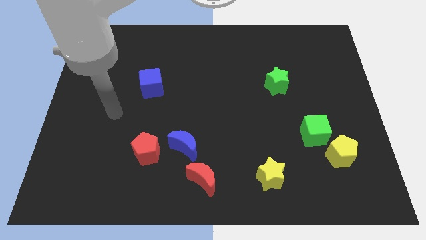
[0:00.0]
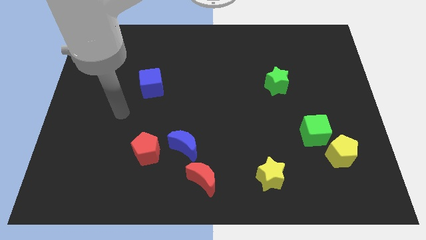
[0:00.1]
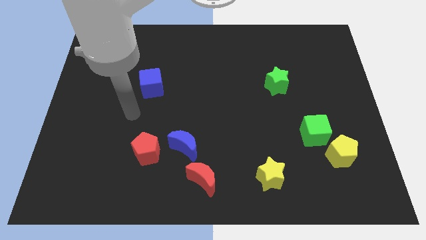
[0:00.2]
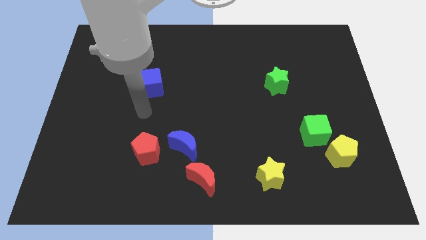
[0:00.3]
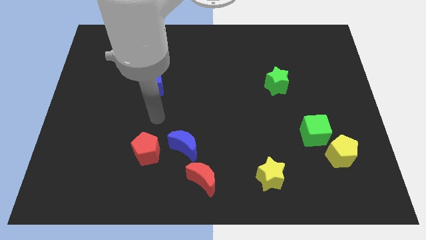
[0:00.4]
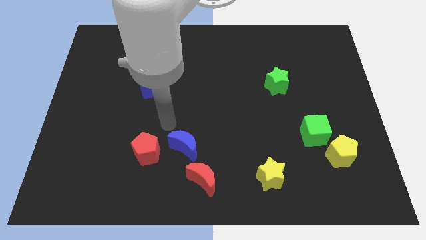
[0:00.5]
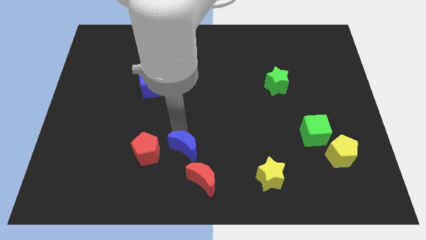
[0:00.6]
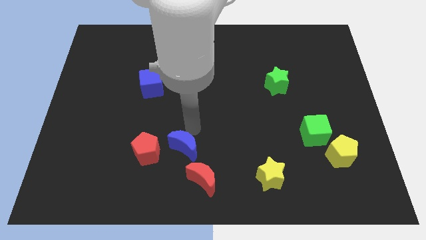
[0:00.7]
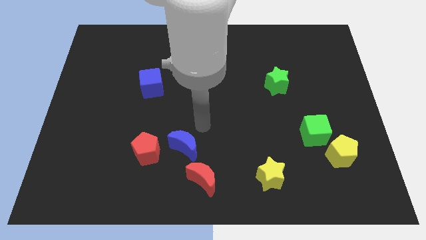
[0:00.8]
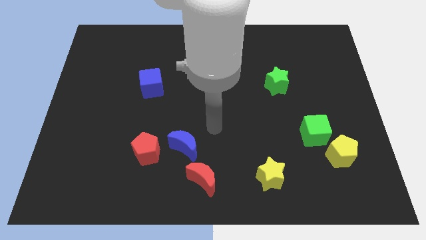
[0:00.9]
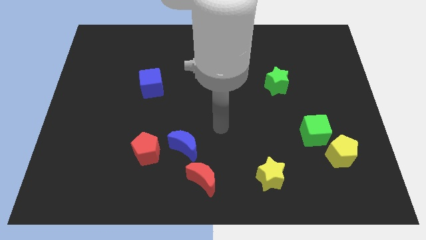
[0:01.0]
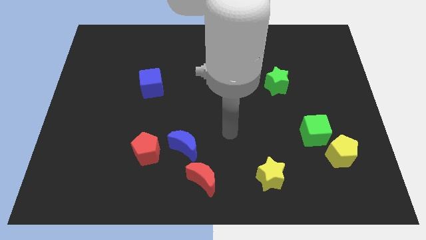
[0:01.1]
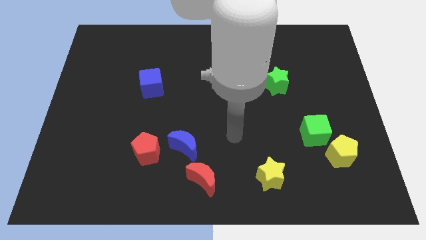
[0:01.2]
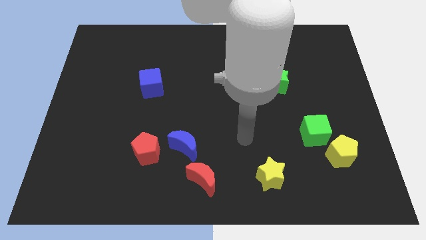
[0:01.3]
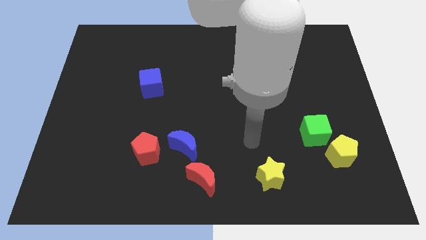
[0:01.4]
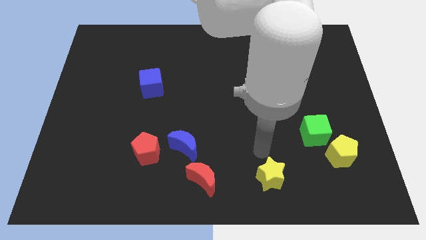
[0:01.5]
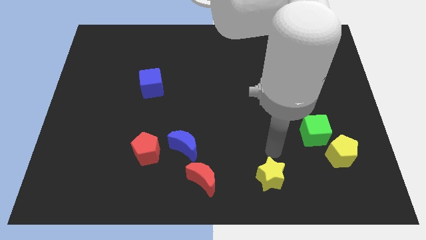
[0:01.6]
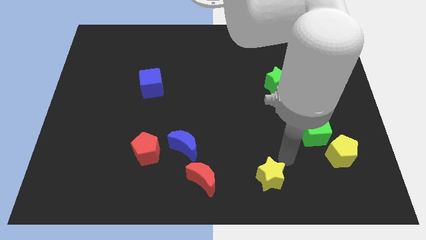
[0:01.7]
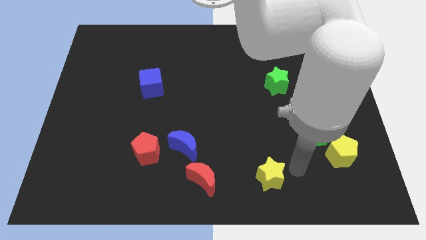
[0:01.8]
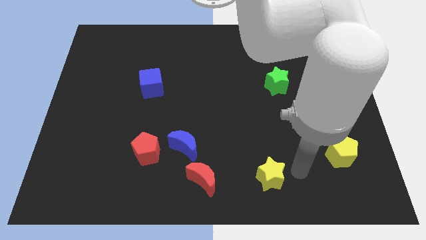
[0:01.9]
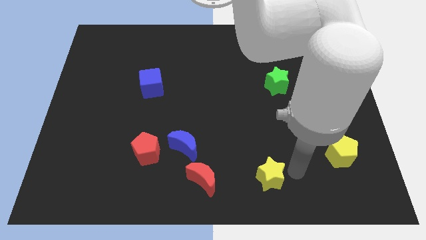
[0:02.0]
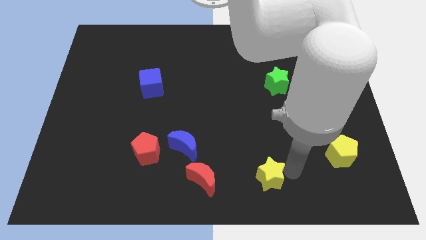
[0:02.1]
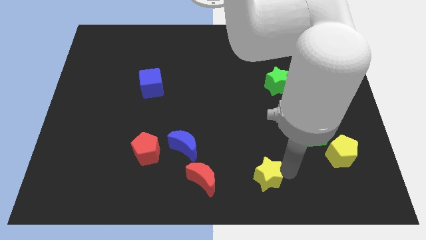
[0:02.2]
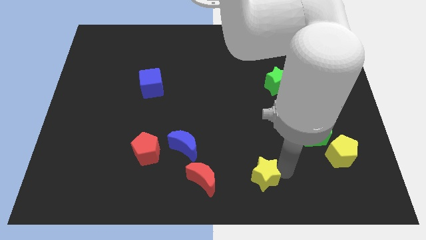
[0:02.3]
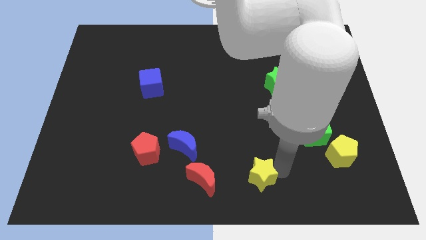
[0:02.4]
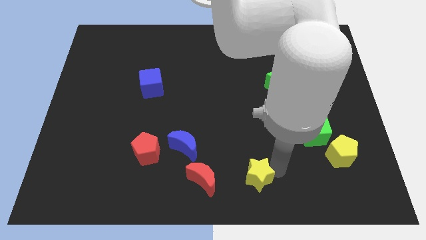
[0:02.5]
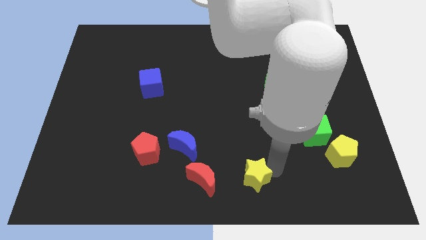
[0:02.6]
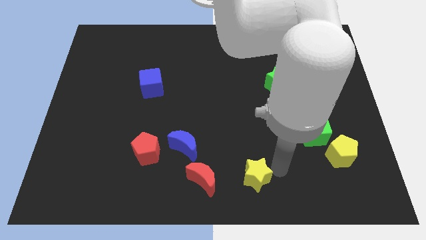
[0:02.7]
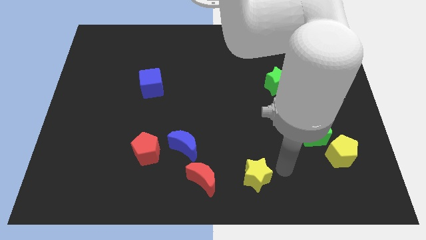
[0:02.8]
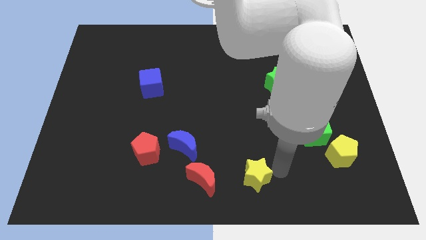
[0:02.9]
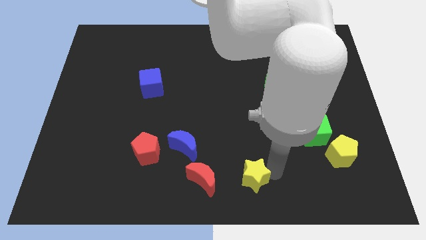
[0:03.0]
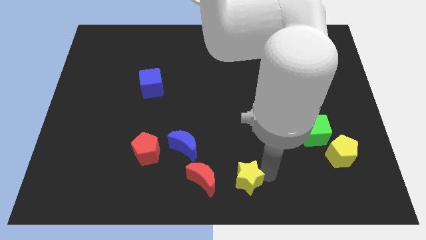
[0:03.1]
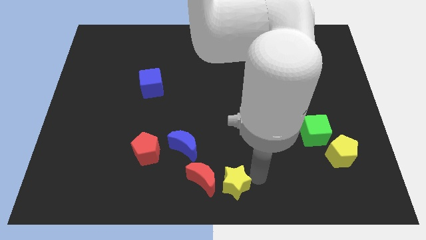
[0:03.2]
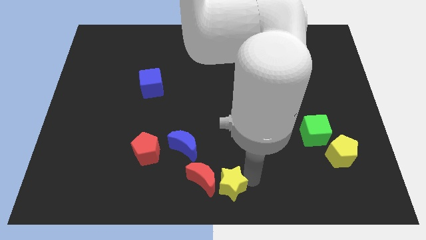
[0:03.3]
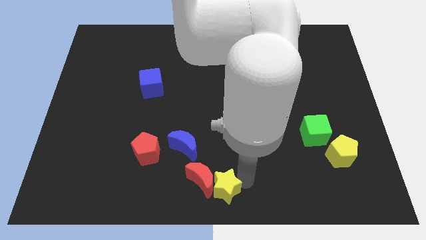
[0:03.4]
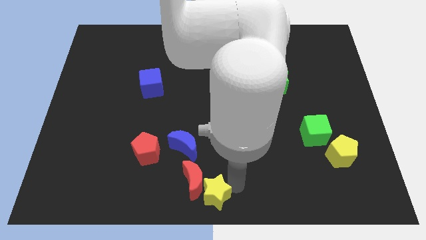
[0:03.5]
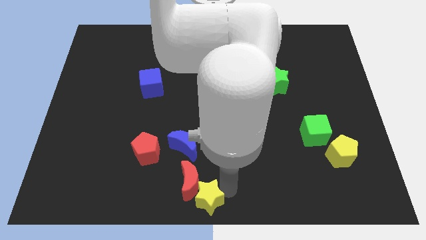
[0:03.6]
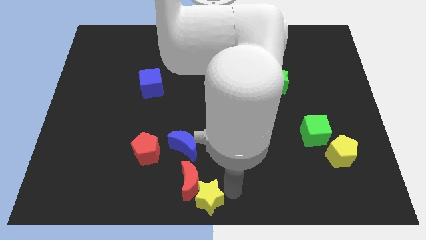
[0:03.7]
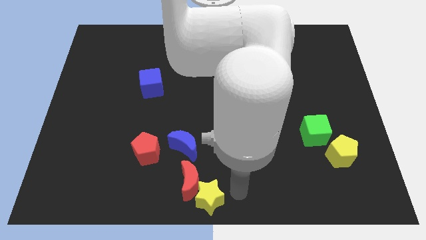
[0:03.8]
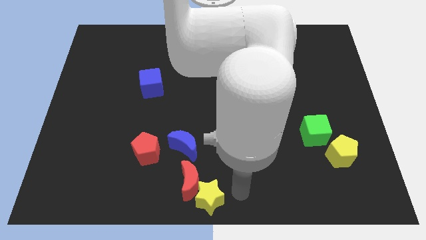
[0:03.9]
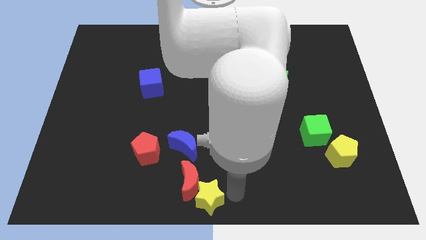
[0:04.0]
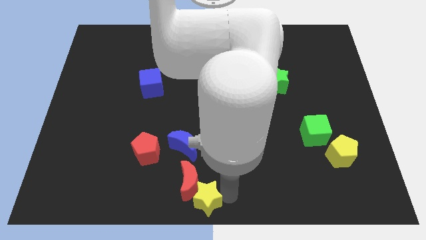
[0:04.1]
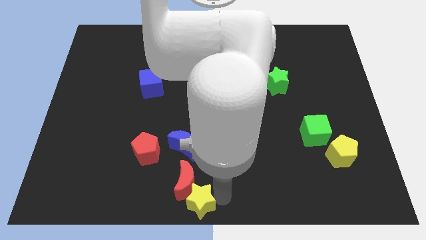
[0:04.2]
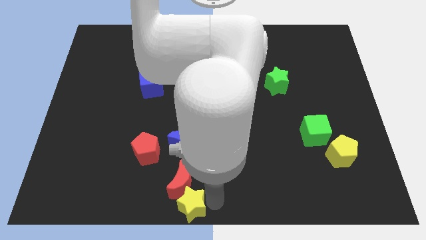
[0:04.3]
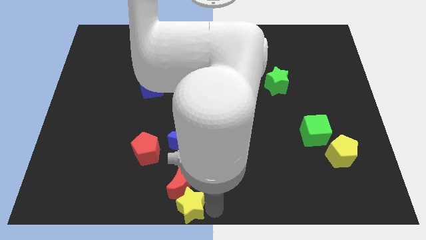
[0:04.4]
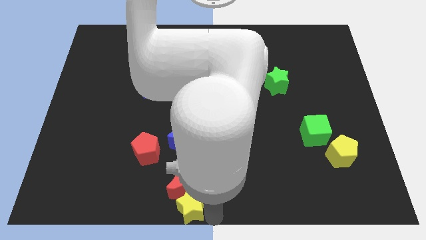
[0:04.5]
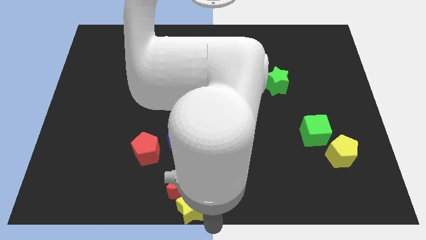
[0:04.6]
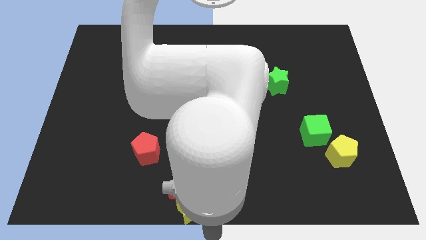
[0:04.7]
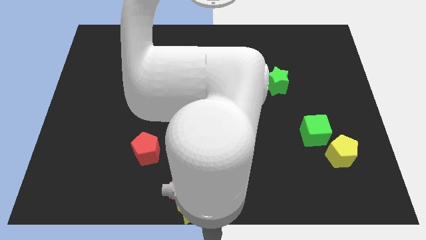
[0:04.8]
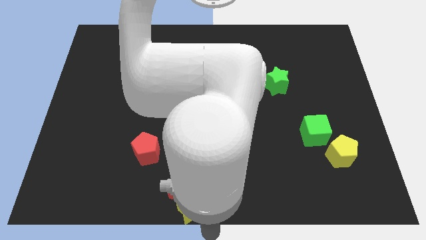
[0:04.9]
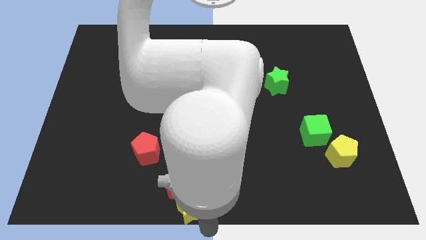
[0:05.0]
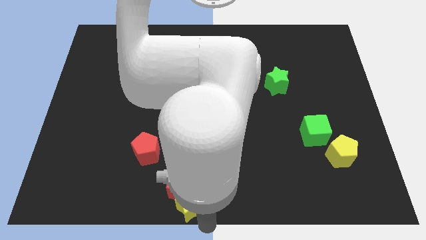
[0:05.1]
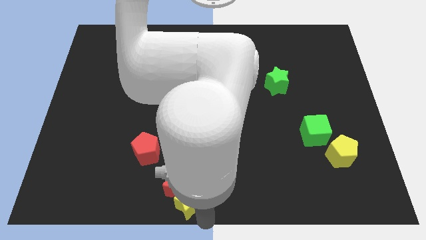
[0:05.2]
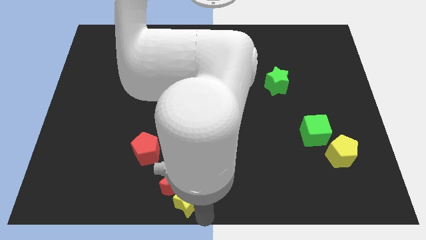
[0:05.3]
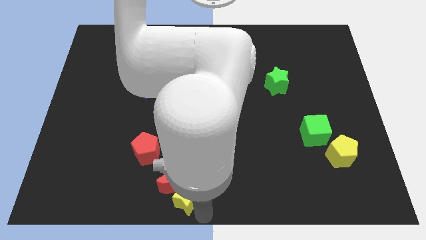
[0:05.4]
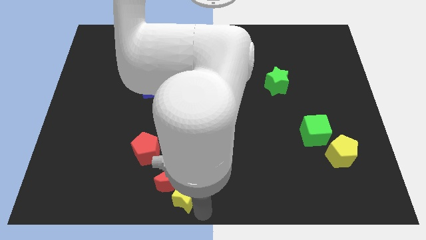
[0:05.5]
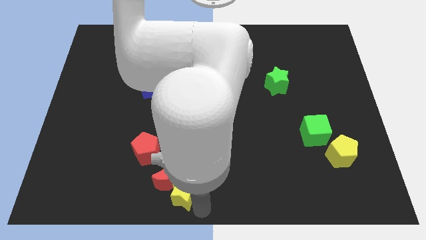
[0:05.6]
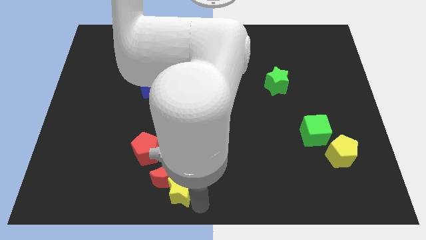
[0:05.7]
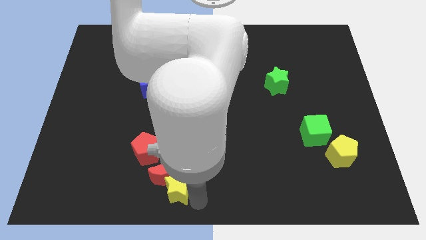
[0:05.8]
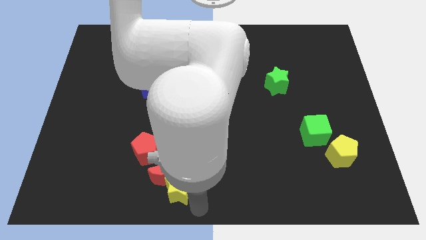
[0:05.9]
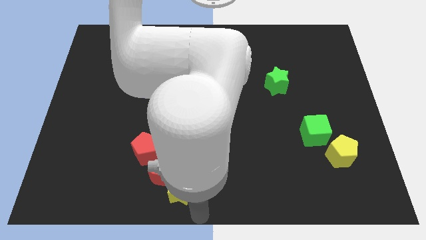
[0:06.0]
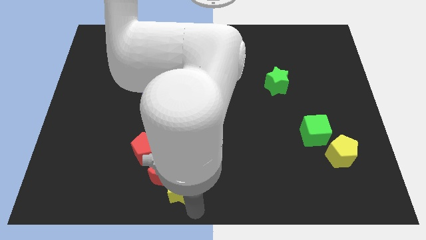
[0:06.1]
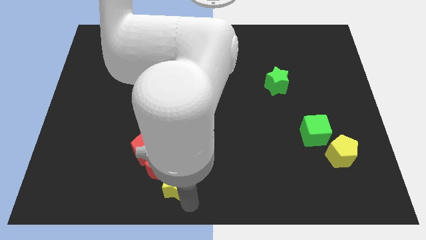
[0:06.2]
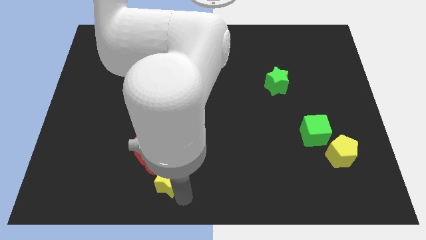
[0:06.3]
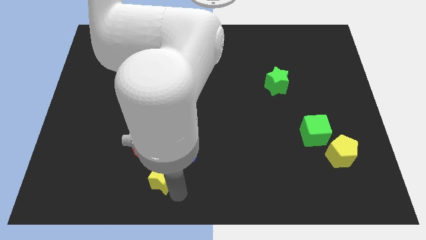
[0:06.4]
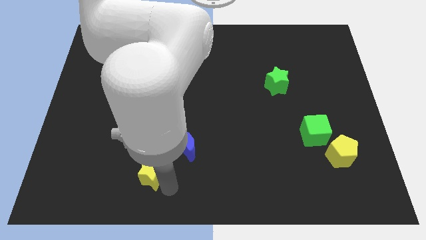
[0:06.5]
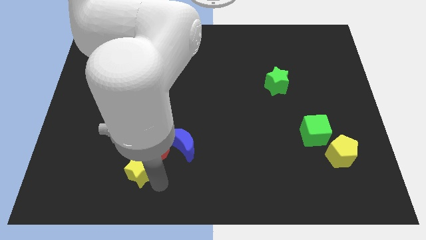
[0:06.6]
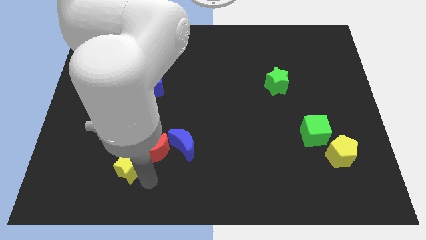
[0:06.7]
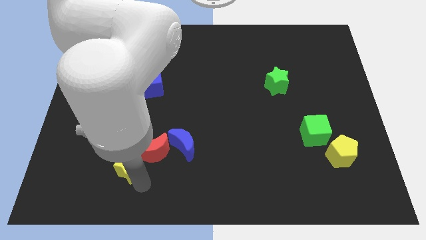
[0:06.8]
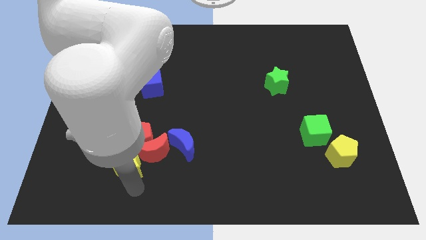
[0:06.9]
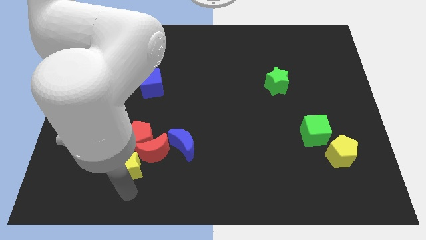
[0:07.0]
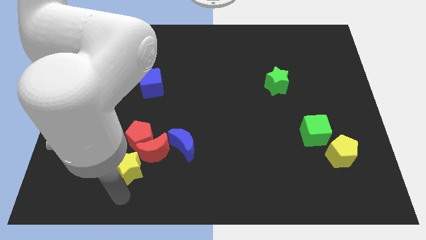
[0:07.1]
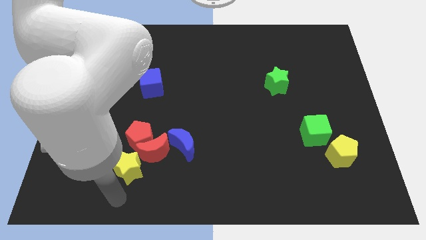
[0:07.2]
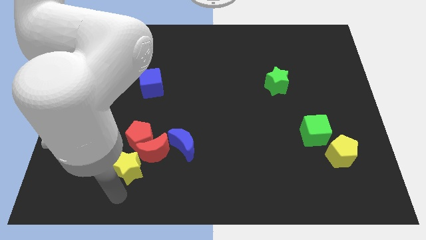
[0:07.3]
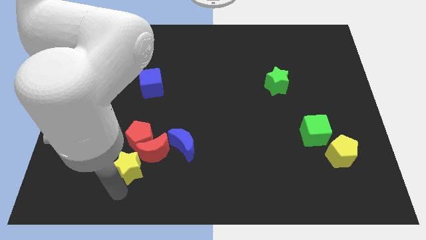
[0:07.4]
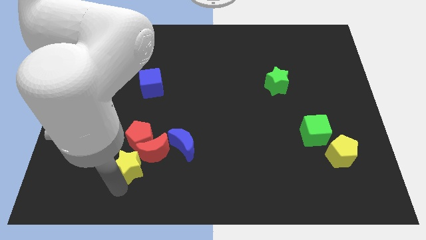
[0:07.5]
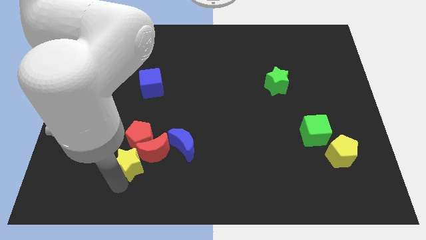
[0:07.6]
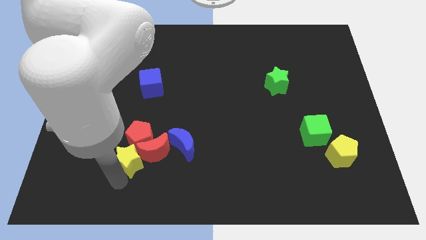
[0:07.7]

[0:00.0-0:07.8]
move the yellow star towards the red pentagon
